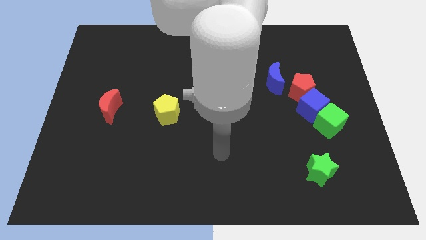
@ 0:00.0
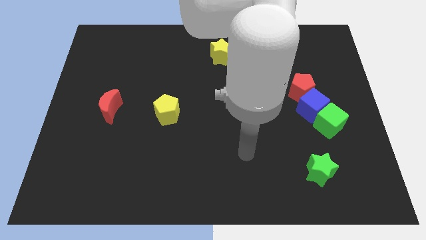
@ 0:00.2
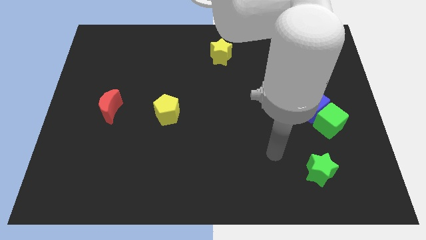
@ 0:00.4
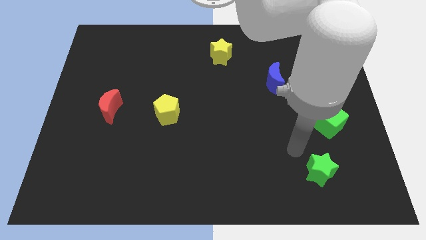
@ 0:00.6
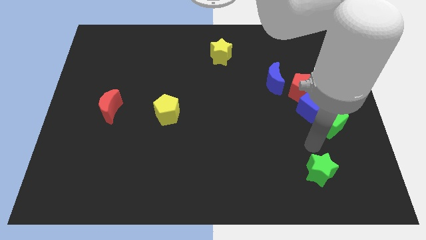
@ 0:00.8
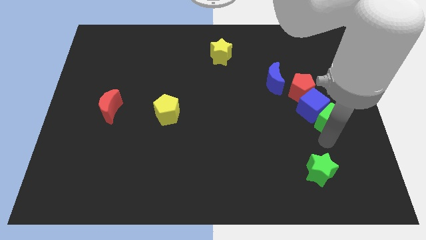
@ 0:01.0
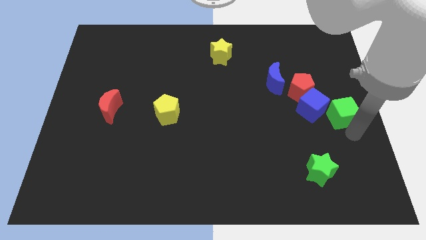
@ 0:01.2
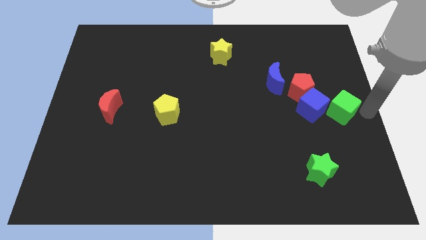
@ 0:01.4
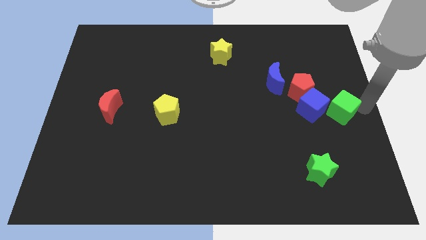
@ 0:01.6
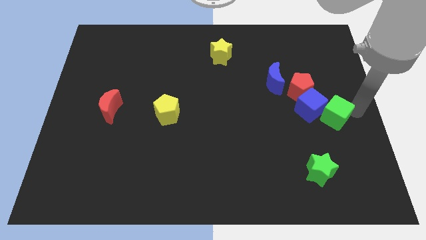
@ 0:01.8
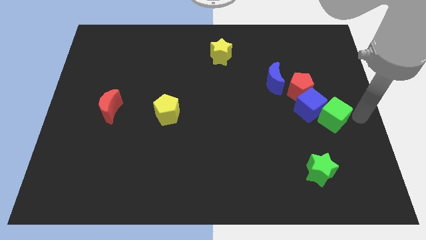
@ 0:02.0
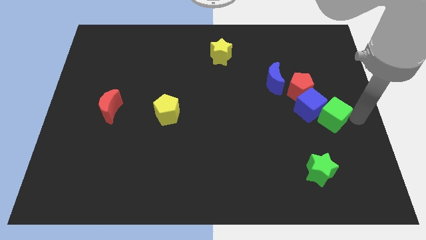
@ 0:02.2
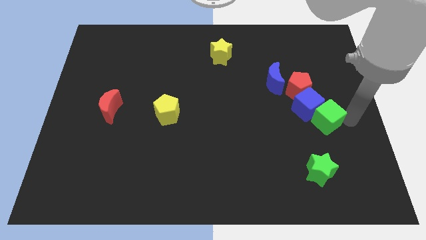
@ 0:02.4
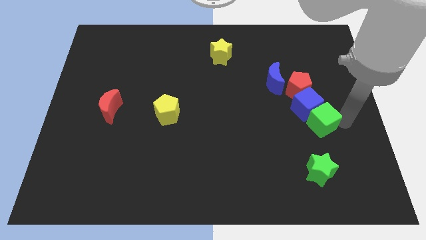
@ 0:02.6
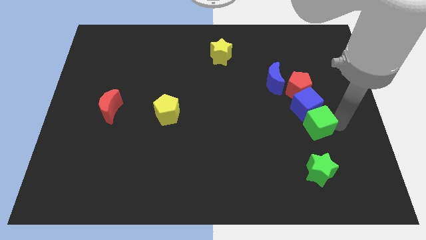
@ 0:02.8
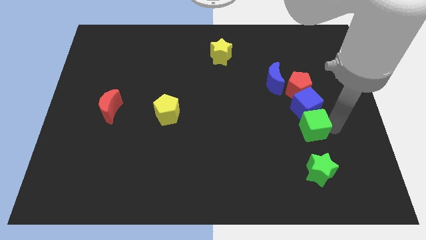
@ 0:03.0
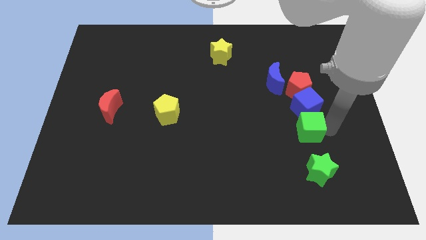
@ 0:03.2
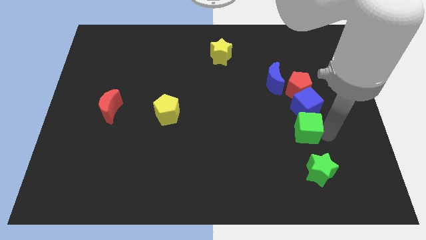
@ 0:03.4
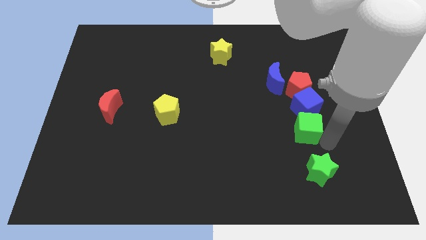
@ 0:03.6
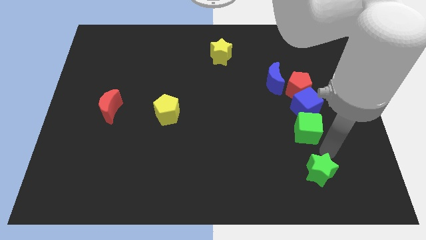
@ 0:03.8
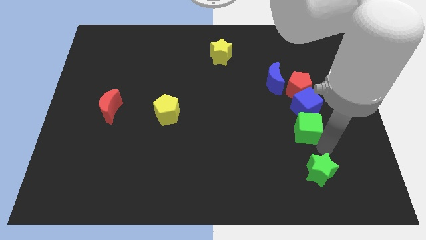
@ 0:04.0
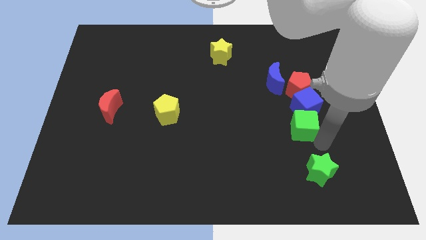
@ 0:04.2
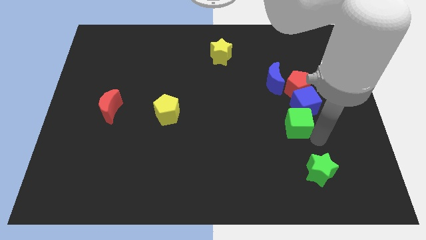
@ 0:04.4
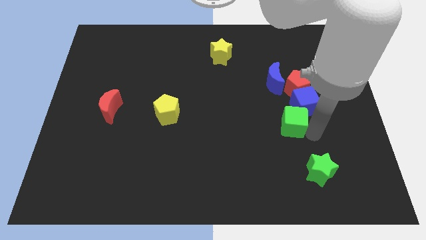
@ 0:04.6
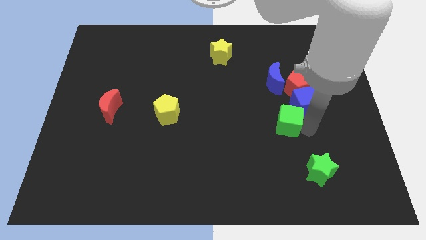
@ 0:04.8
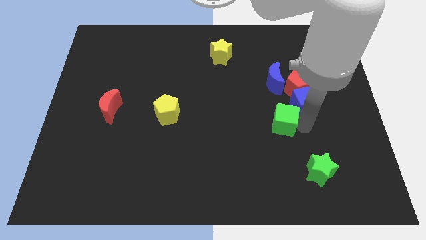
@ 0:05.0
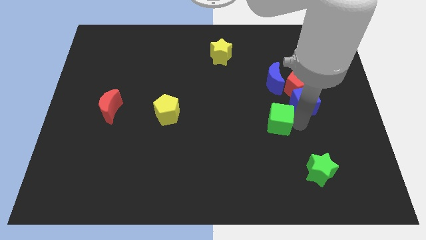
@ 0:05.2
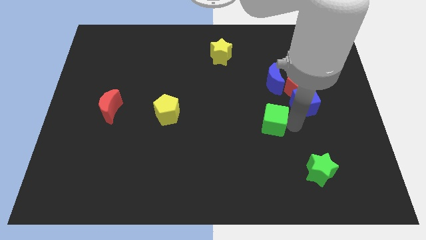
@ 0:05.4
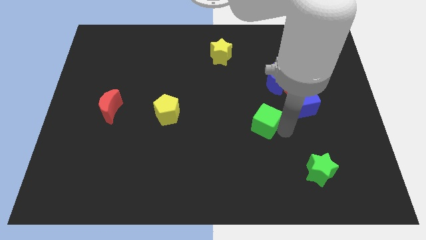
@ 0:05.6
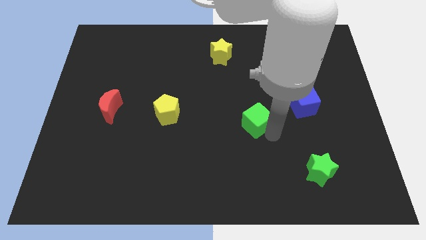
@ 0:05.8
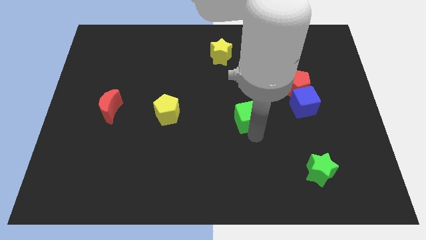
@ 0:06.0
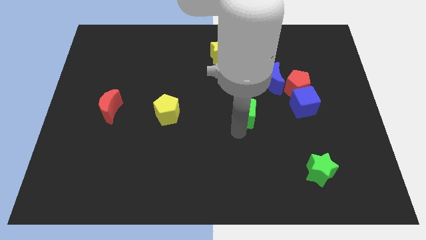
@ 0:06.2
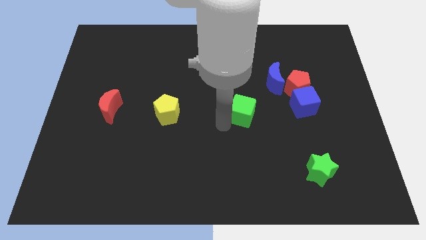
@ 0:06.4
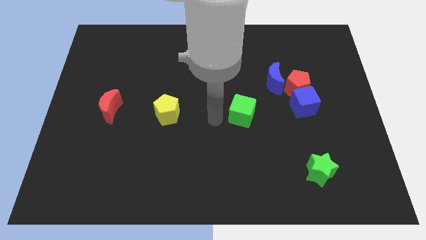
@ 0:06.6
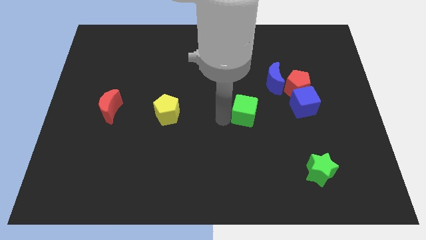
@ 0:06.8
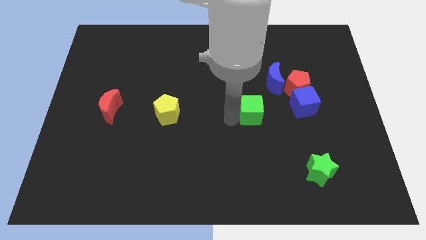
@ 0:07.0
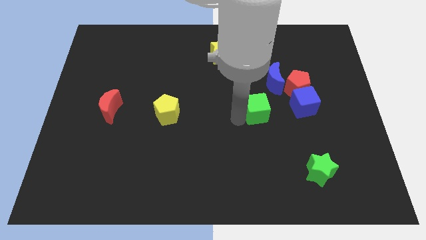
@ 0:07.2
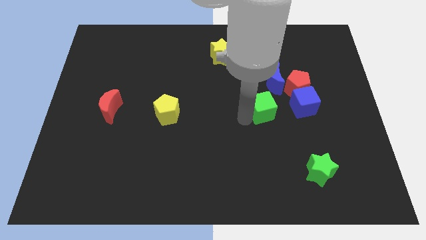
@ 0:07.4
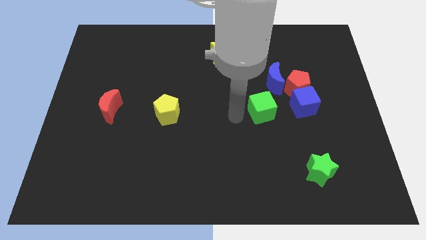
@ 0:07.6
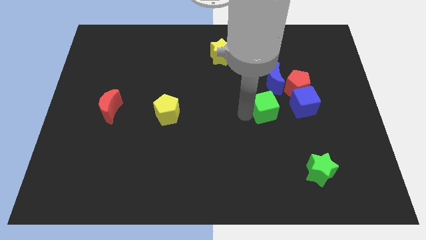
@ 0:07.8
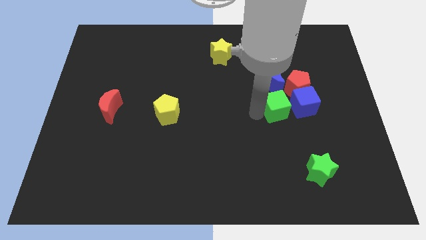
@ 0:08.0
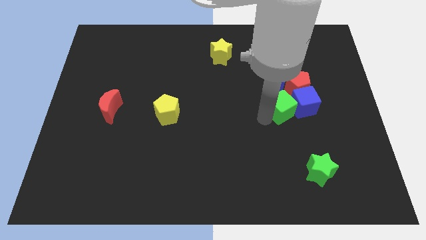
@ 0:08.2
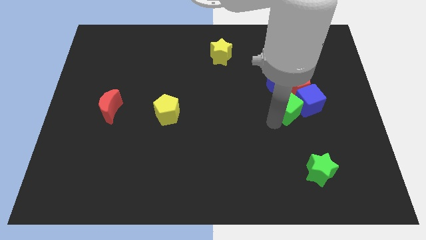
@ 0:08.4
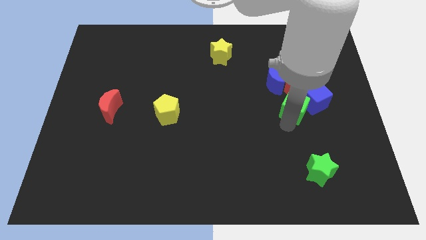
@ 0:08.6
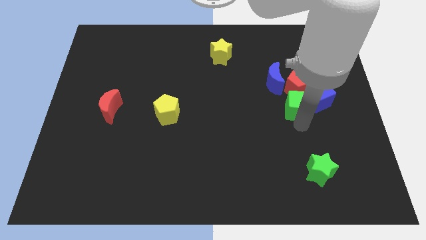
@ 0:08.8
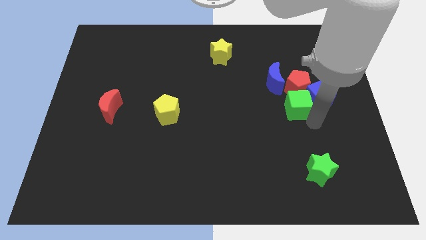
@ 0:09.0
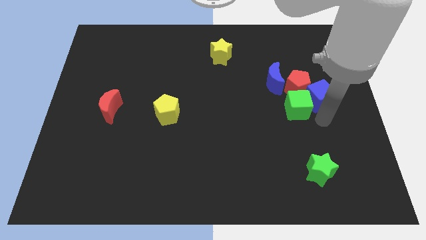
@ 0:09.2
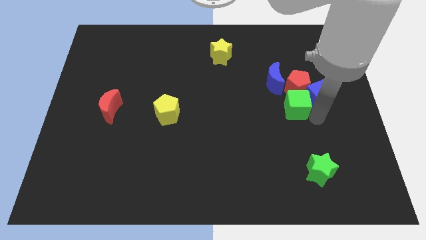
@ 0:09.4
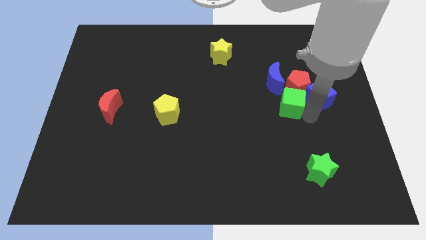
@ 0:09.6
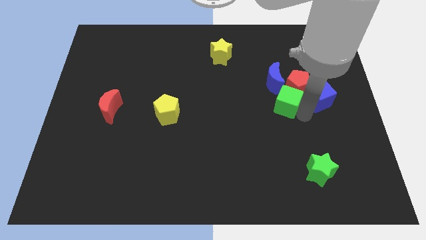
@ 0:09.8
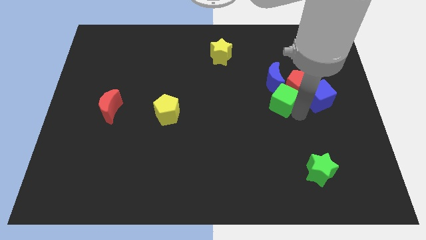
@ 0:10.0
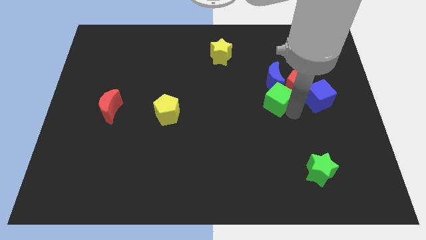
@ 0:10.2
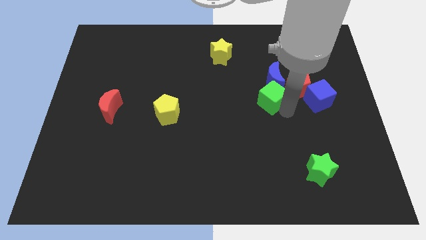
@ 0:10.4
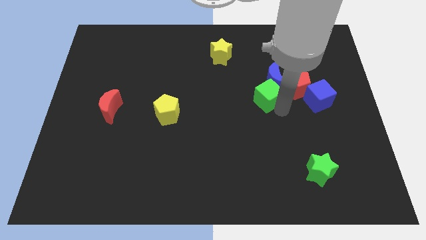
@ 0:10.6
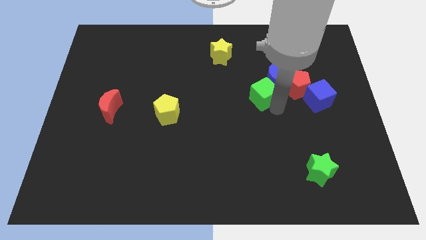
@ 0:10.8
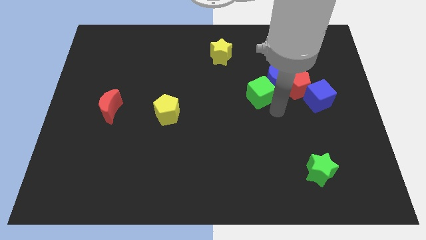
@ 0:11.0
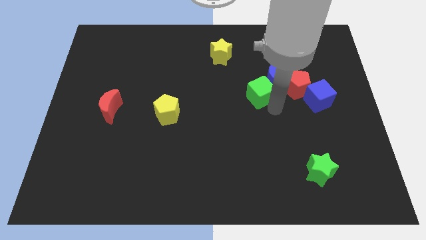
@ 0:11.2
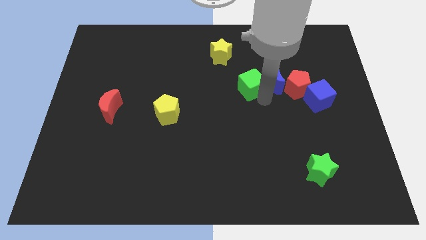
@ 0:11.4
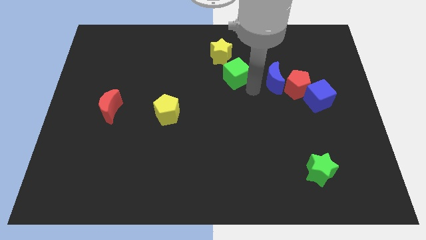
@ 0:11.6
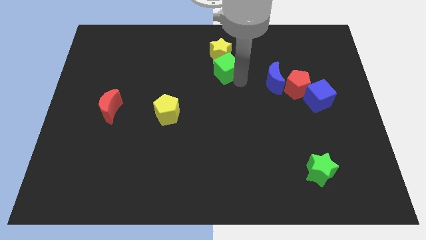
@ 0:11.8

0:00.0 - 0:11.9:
slide the green cube towards the yellow star

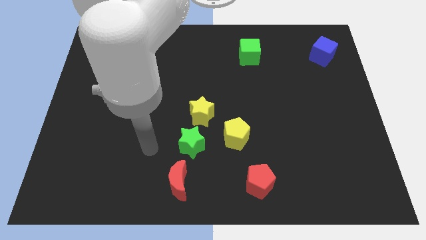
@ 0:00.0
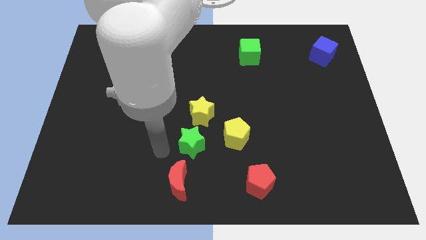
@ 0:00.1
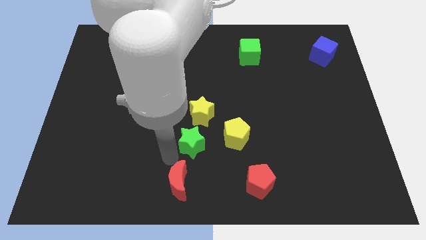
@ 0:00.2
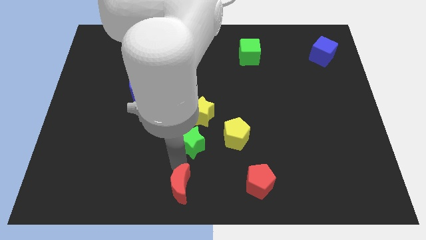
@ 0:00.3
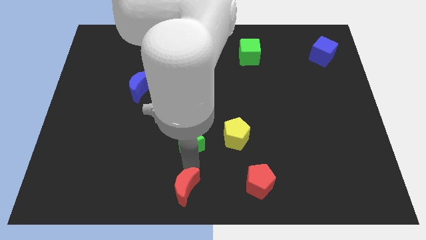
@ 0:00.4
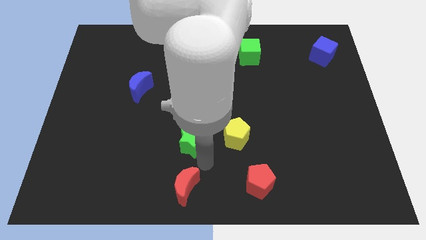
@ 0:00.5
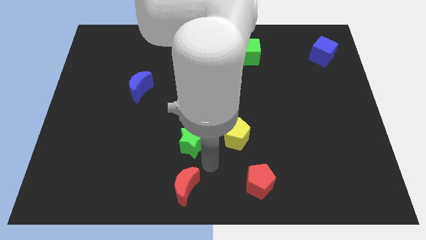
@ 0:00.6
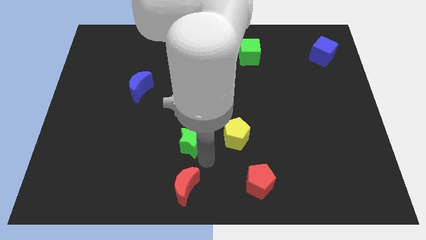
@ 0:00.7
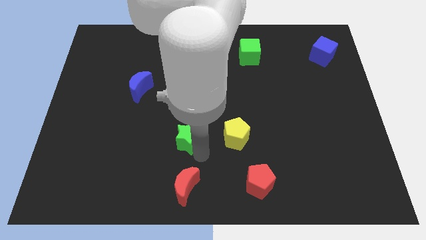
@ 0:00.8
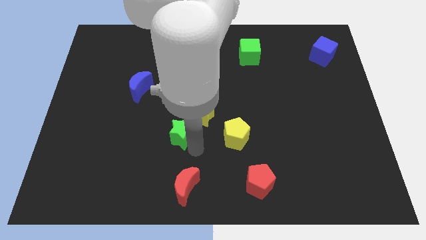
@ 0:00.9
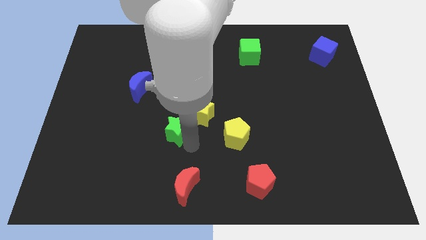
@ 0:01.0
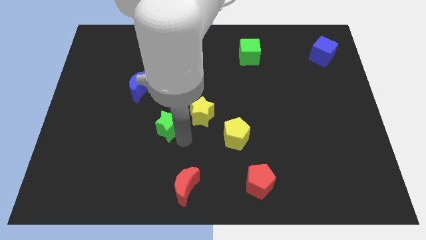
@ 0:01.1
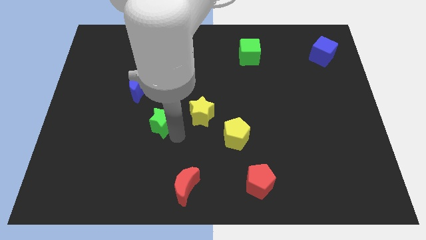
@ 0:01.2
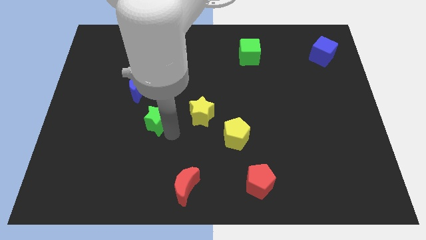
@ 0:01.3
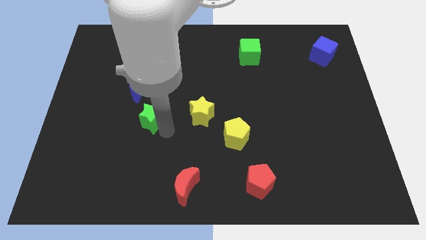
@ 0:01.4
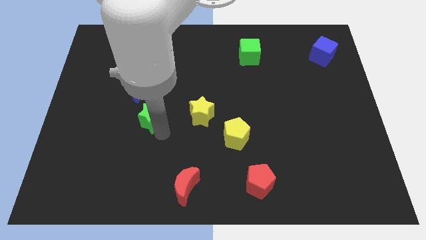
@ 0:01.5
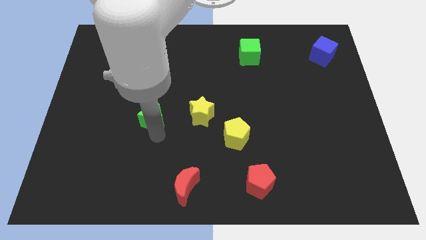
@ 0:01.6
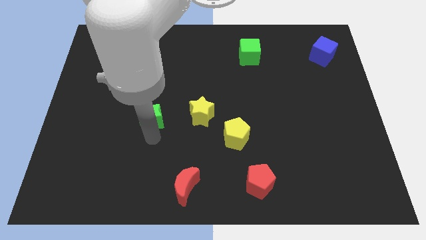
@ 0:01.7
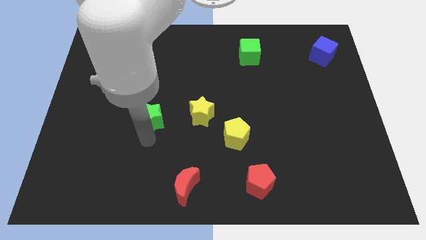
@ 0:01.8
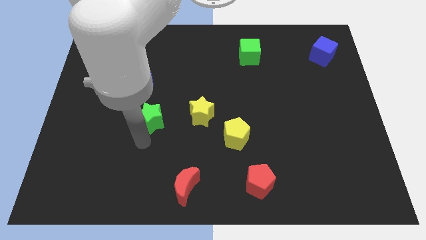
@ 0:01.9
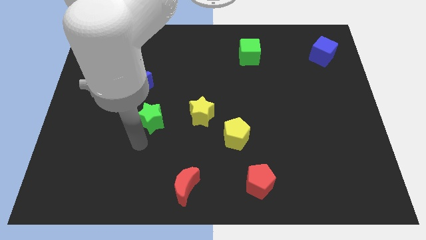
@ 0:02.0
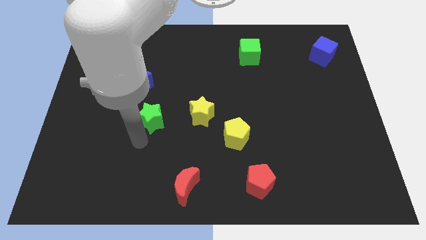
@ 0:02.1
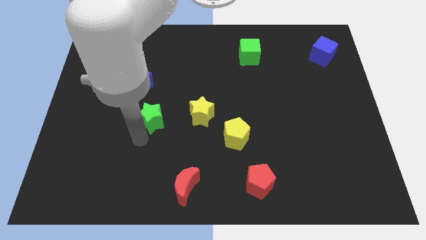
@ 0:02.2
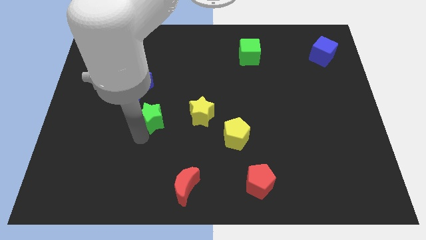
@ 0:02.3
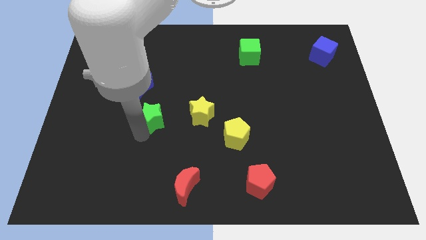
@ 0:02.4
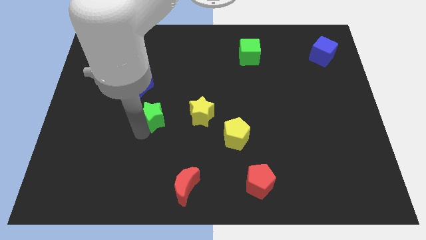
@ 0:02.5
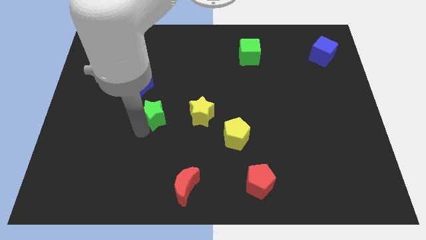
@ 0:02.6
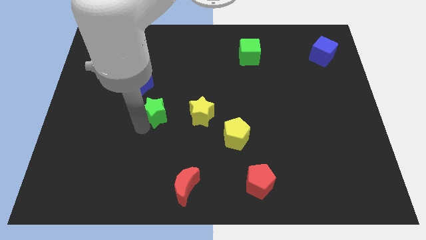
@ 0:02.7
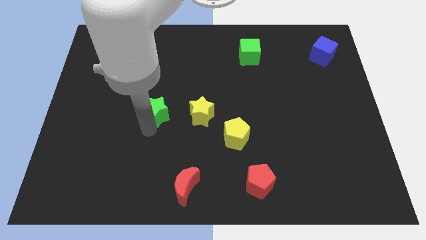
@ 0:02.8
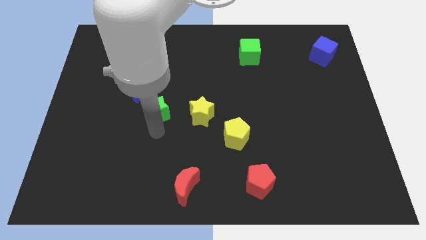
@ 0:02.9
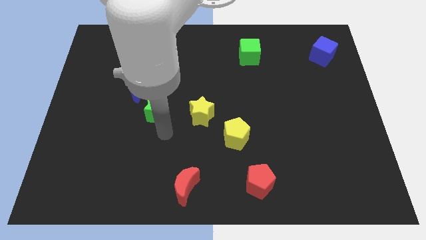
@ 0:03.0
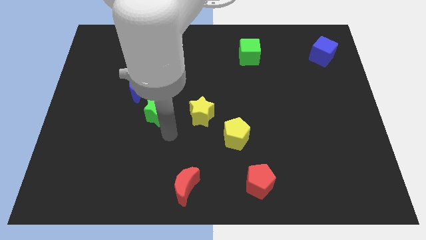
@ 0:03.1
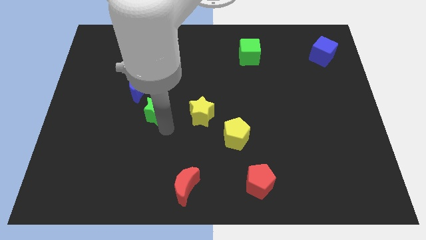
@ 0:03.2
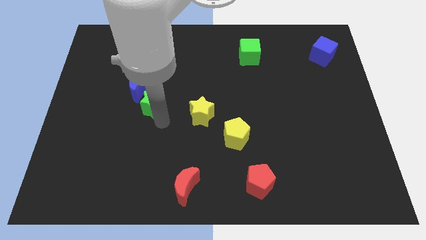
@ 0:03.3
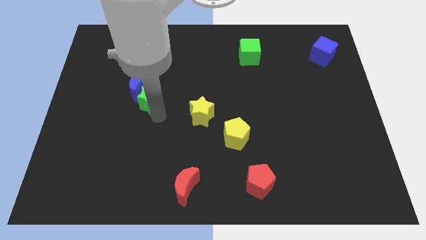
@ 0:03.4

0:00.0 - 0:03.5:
push the green star close to the blue moon
